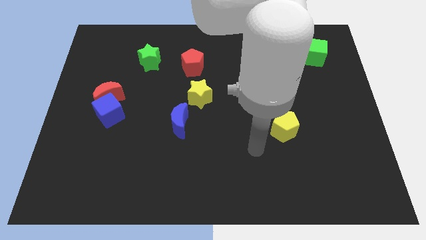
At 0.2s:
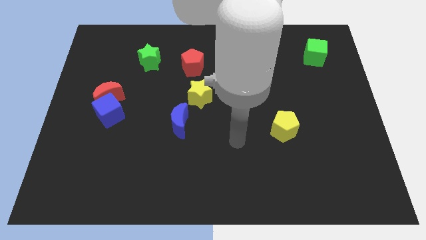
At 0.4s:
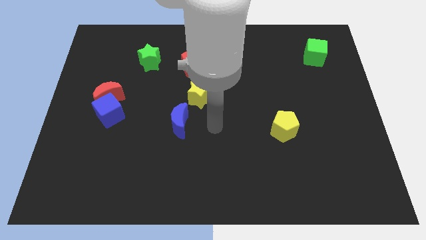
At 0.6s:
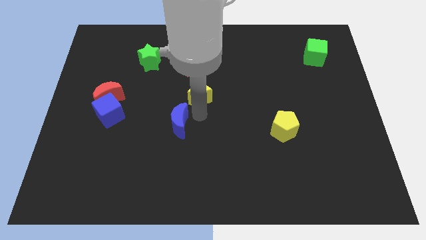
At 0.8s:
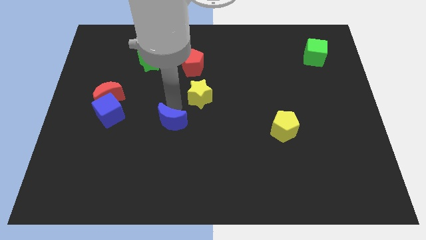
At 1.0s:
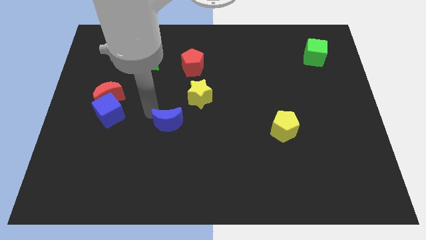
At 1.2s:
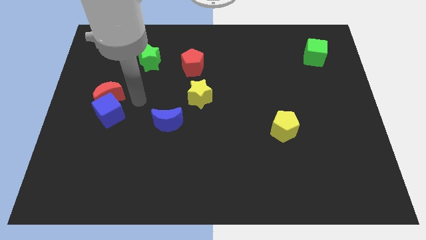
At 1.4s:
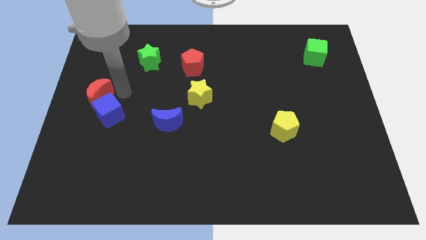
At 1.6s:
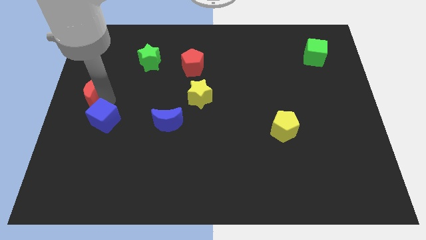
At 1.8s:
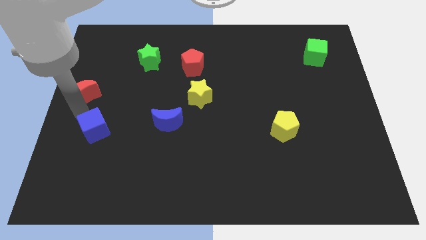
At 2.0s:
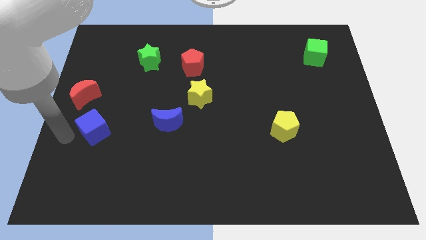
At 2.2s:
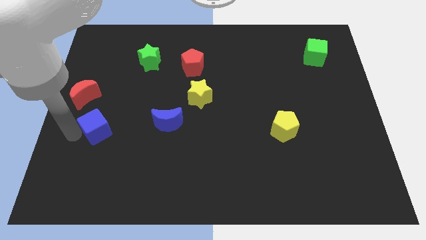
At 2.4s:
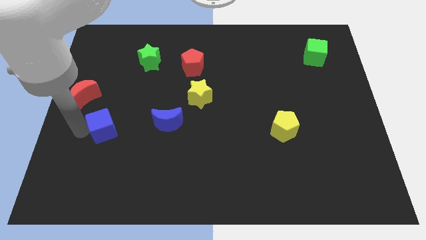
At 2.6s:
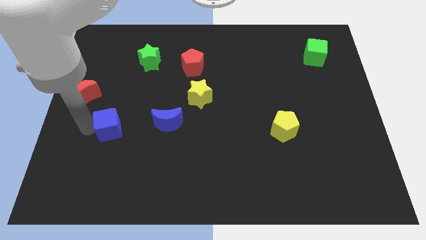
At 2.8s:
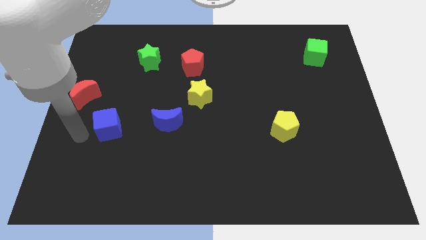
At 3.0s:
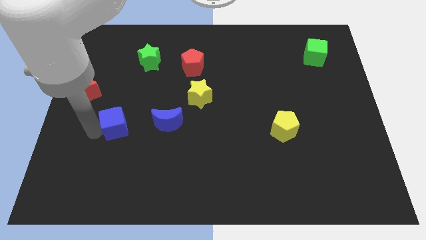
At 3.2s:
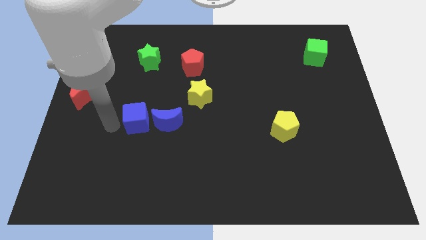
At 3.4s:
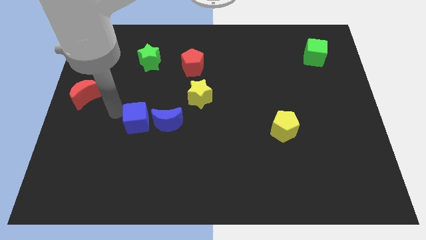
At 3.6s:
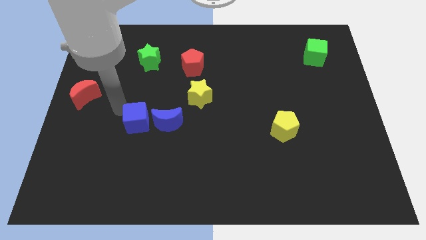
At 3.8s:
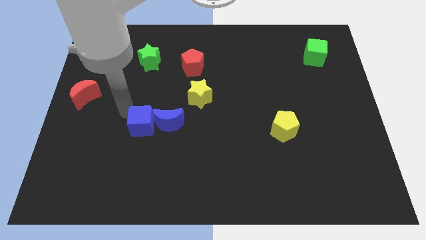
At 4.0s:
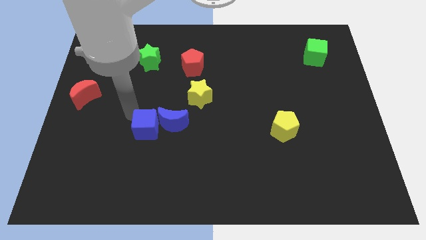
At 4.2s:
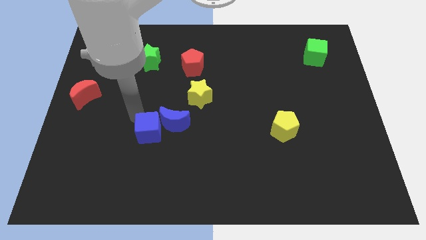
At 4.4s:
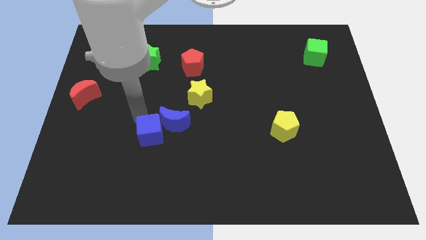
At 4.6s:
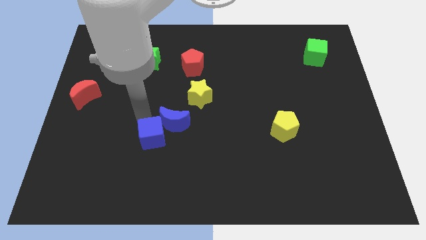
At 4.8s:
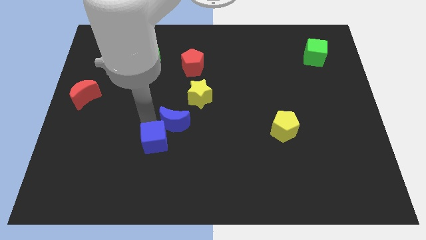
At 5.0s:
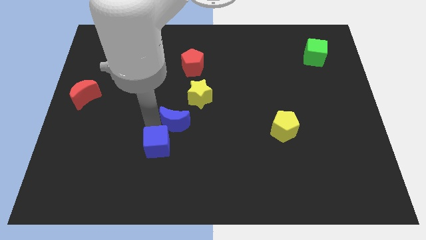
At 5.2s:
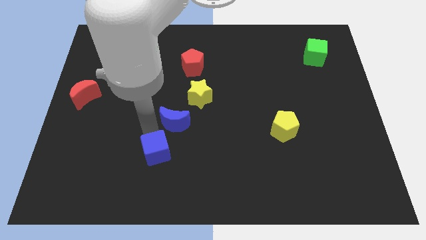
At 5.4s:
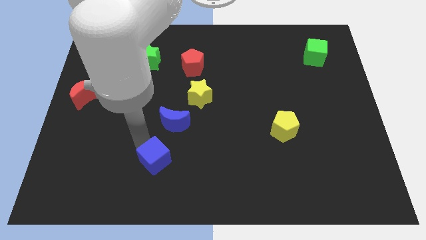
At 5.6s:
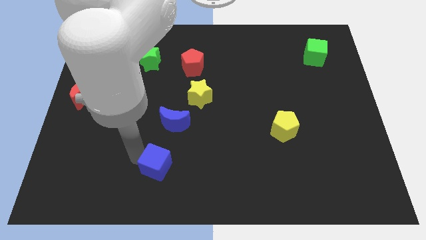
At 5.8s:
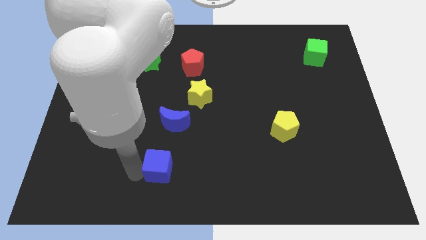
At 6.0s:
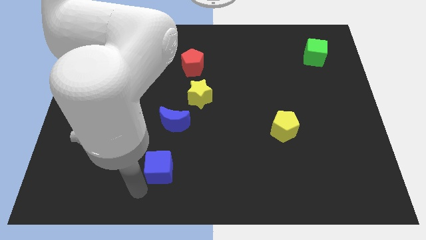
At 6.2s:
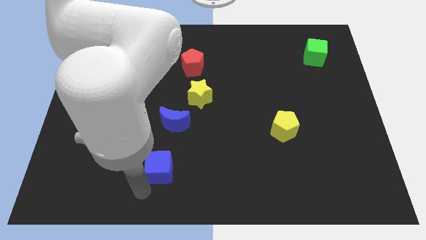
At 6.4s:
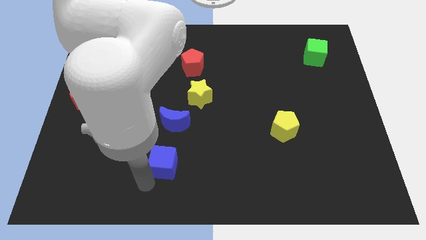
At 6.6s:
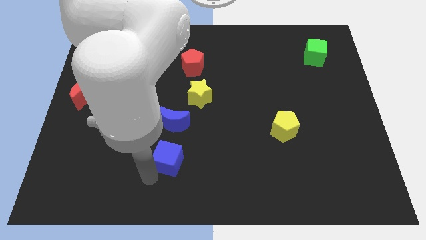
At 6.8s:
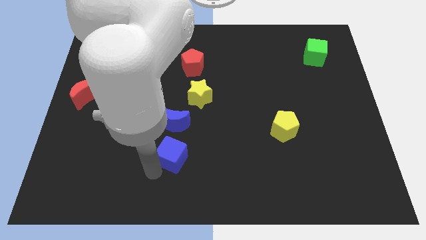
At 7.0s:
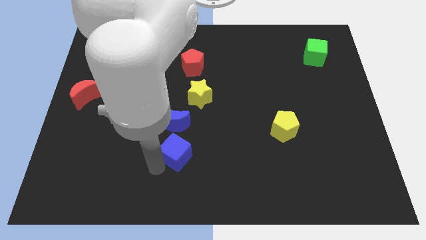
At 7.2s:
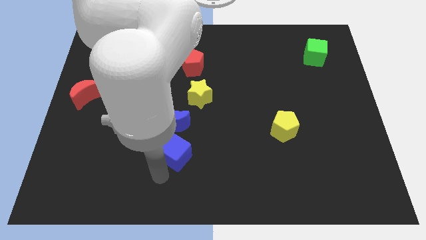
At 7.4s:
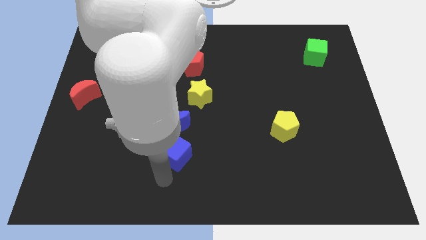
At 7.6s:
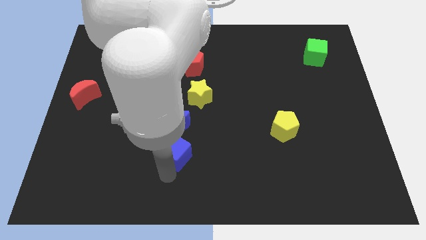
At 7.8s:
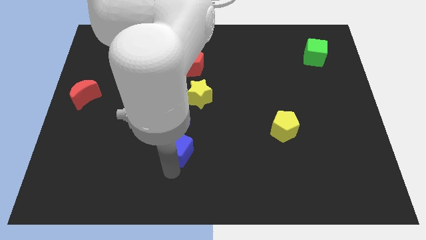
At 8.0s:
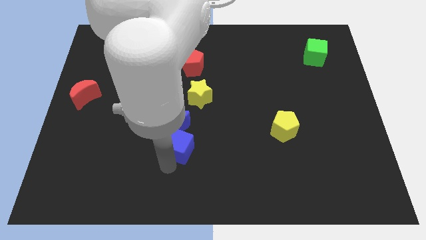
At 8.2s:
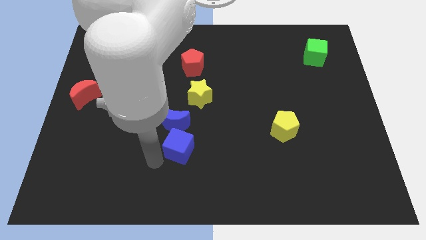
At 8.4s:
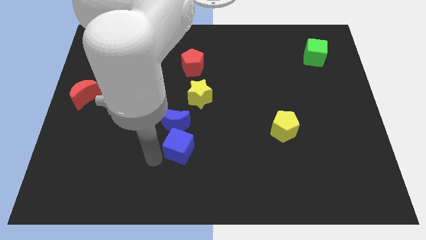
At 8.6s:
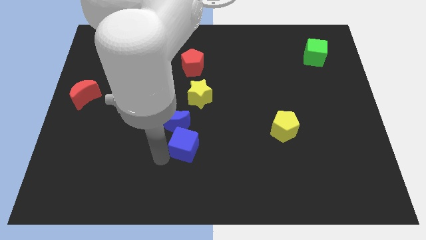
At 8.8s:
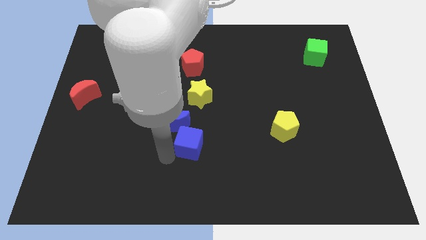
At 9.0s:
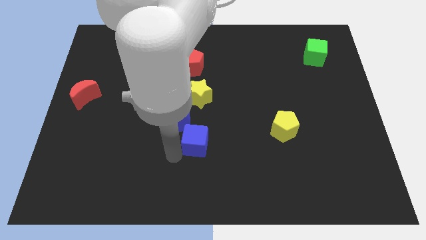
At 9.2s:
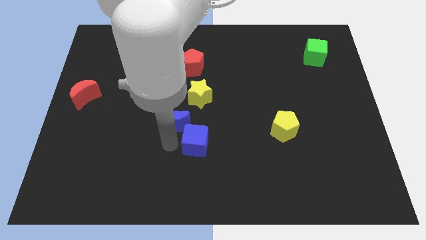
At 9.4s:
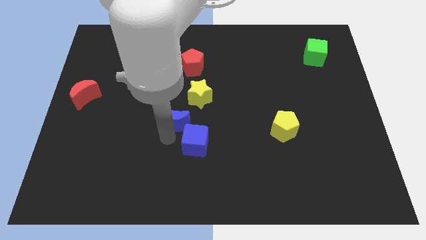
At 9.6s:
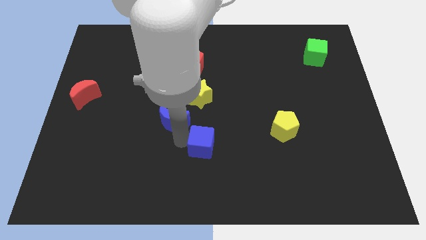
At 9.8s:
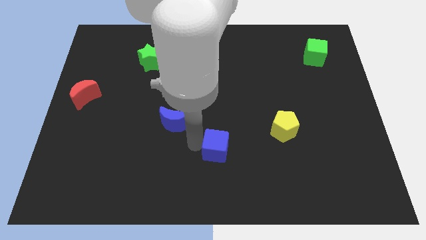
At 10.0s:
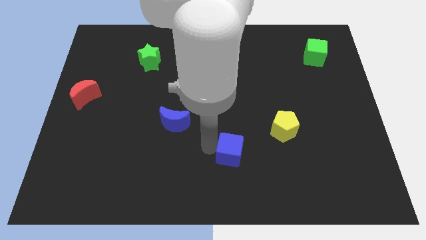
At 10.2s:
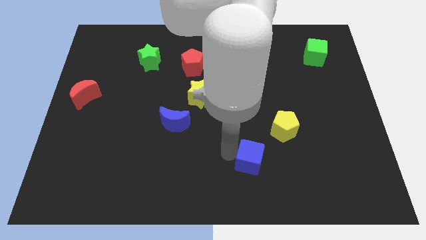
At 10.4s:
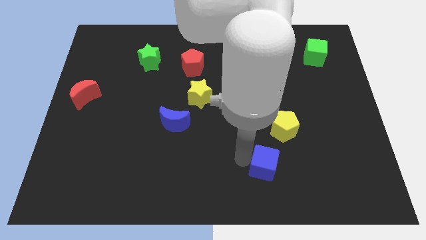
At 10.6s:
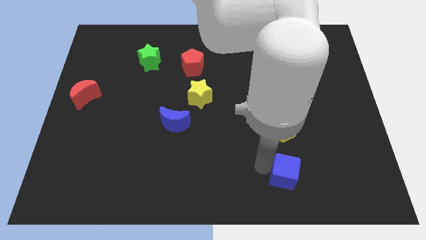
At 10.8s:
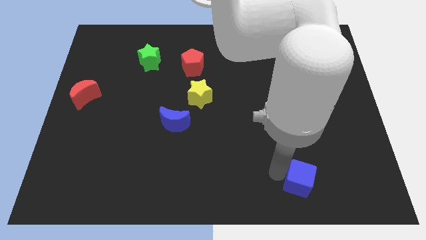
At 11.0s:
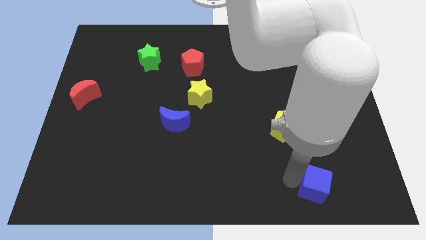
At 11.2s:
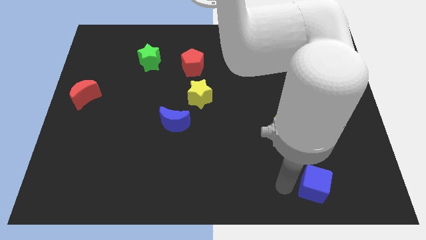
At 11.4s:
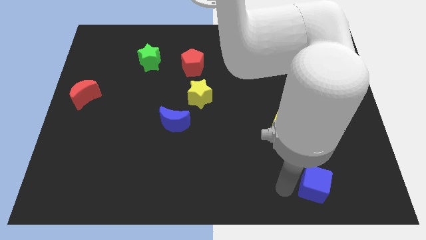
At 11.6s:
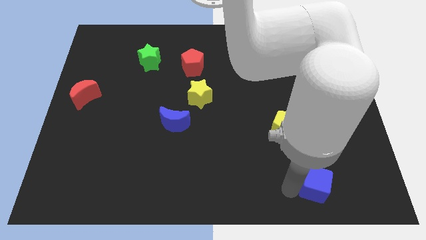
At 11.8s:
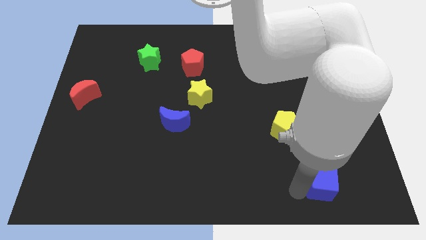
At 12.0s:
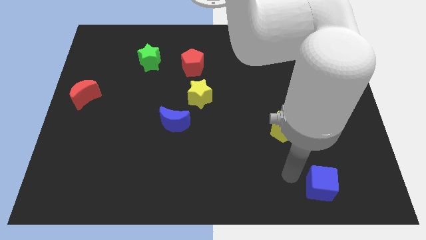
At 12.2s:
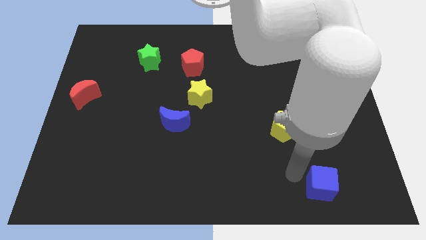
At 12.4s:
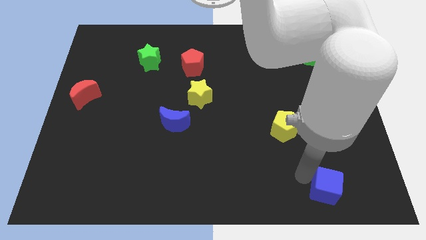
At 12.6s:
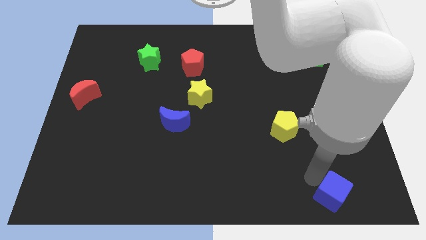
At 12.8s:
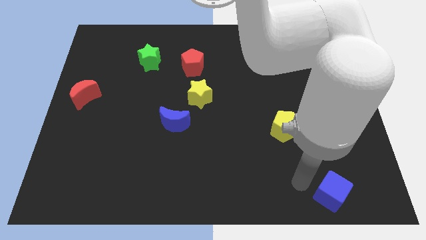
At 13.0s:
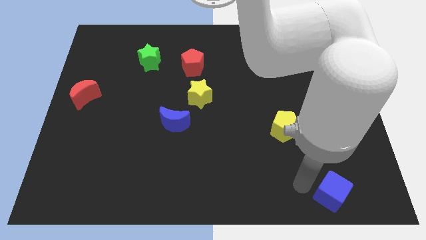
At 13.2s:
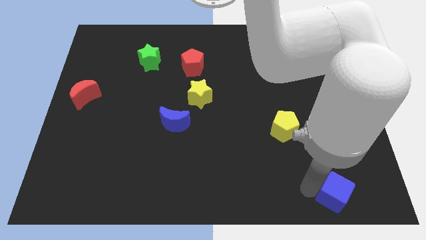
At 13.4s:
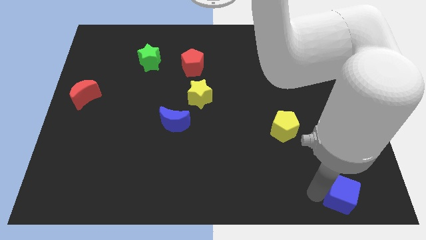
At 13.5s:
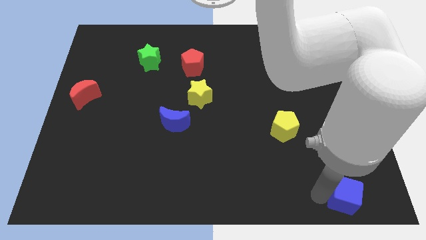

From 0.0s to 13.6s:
slide the blue cube to the bottom right

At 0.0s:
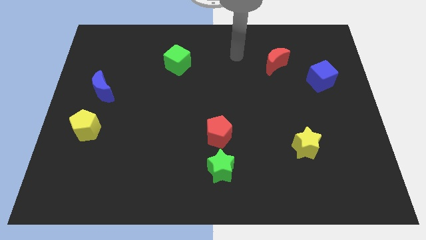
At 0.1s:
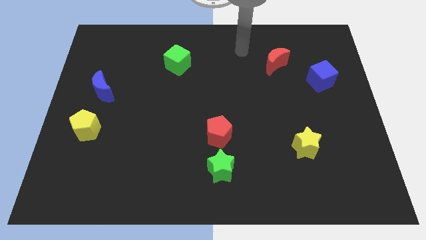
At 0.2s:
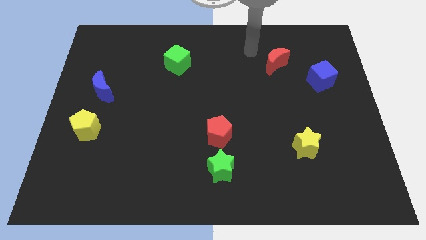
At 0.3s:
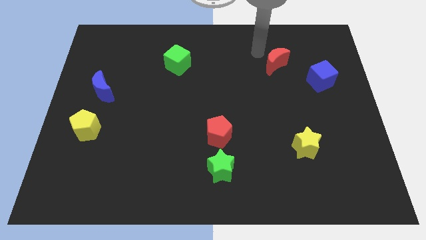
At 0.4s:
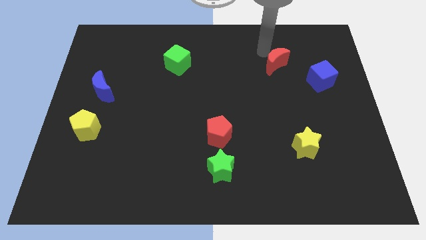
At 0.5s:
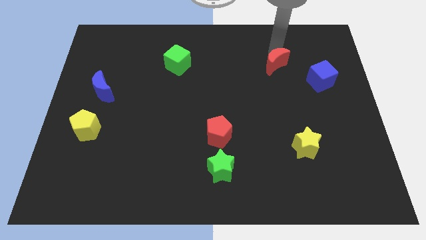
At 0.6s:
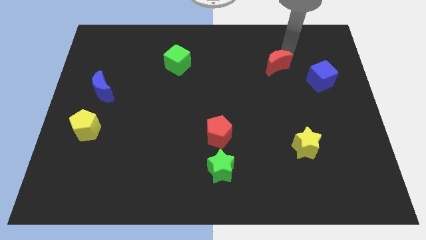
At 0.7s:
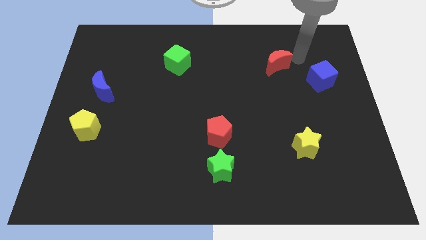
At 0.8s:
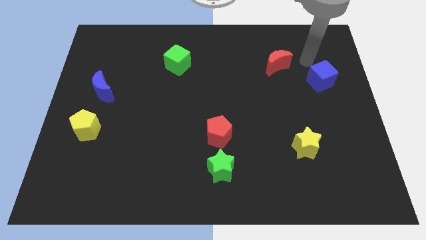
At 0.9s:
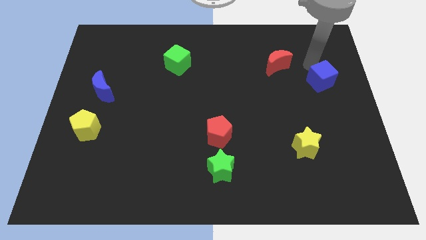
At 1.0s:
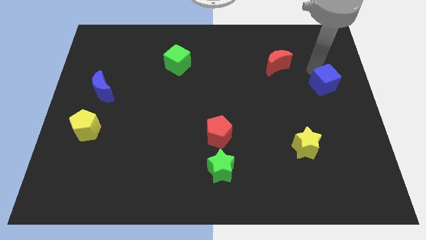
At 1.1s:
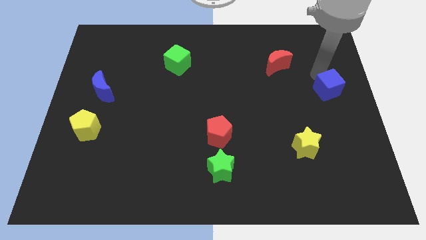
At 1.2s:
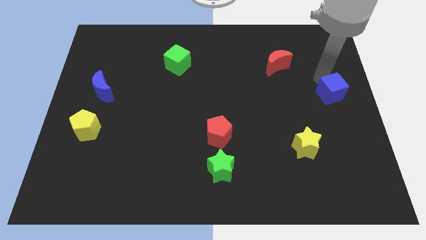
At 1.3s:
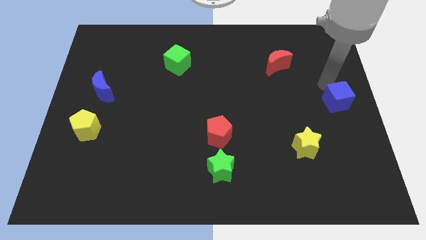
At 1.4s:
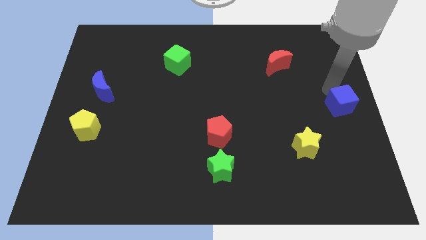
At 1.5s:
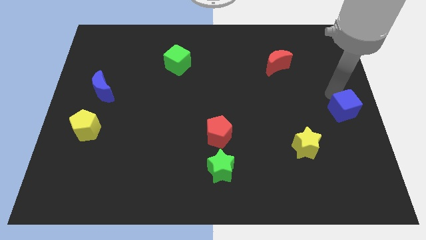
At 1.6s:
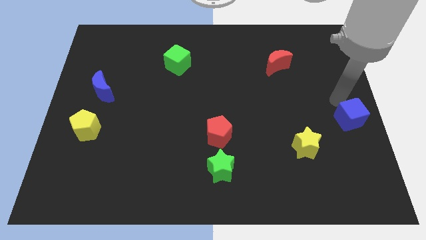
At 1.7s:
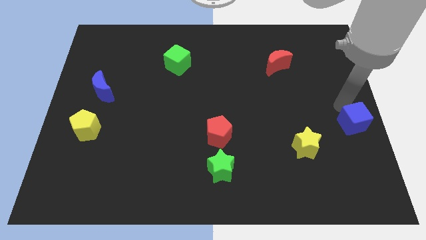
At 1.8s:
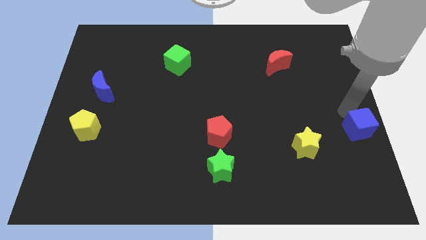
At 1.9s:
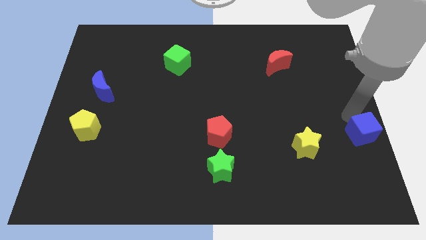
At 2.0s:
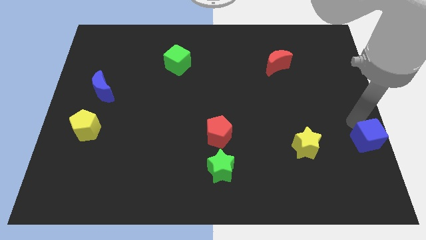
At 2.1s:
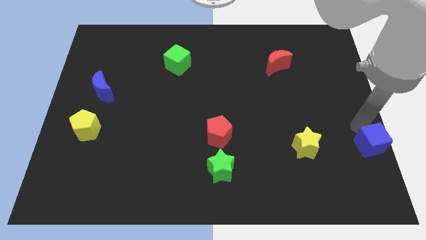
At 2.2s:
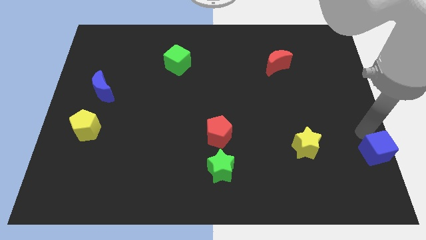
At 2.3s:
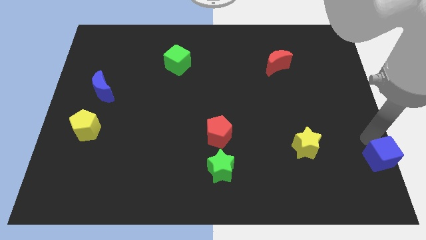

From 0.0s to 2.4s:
put the blue cube to the lower right corner
